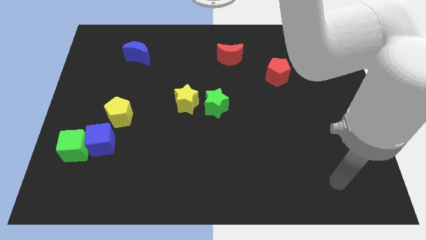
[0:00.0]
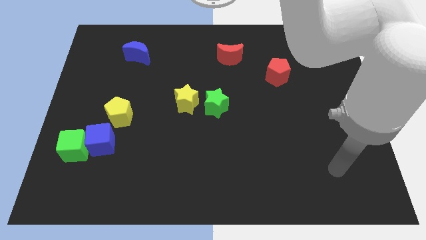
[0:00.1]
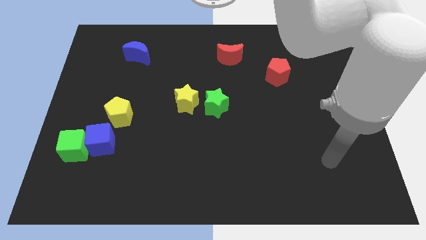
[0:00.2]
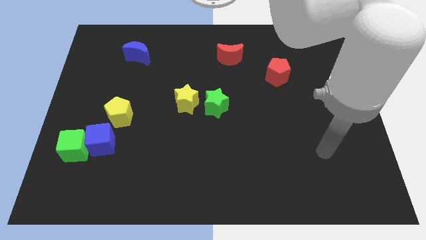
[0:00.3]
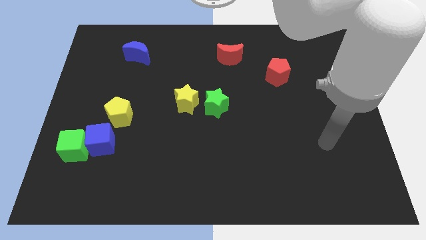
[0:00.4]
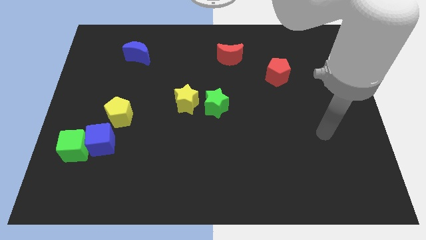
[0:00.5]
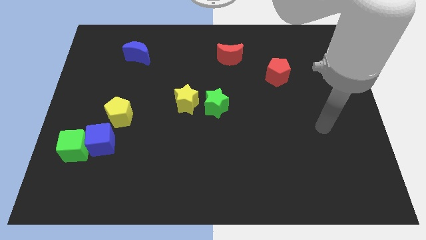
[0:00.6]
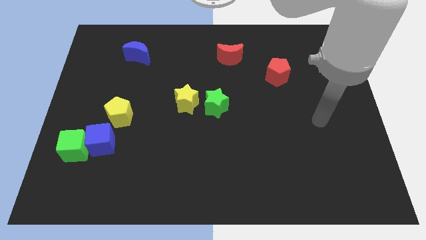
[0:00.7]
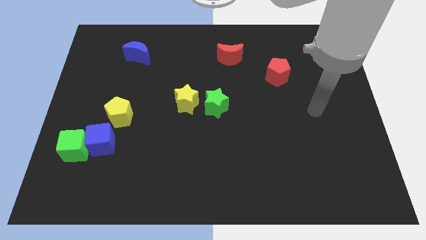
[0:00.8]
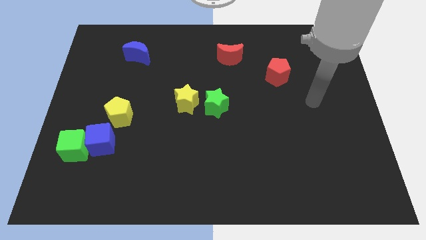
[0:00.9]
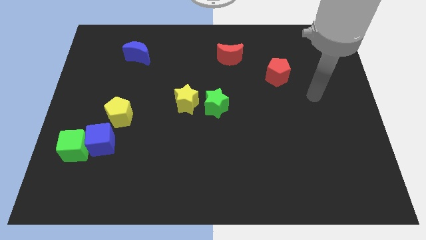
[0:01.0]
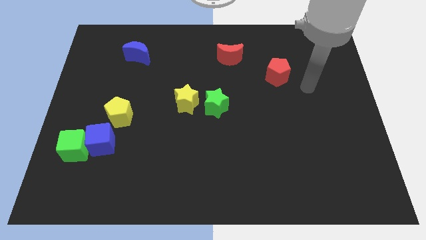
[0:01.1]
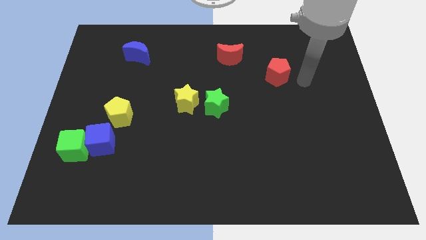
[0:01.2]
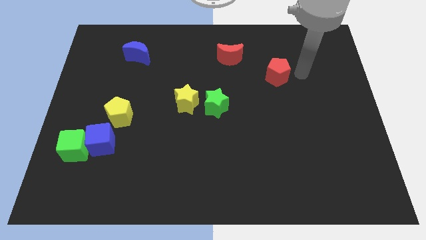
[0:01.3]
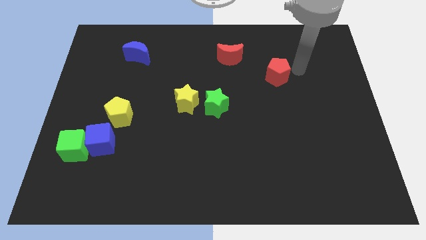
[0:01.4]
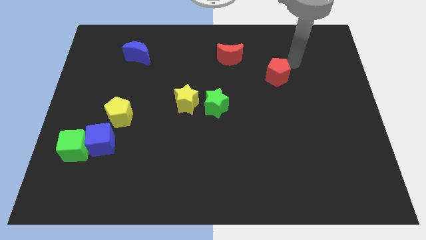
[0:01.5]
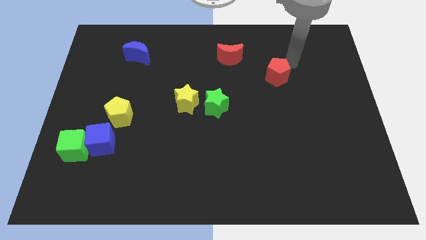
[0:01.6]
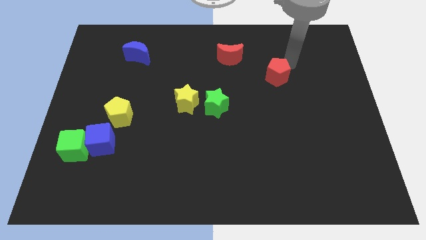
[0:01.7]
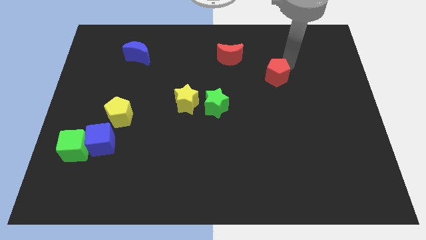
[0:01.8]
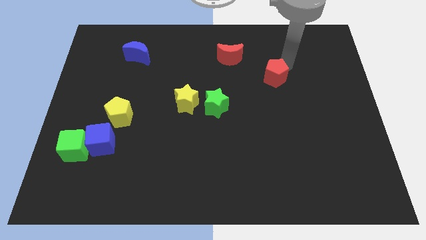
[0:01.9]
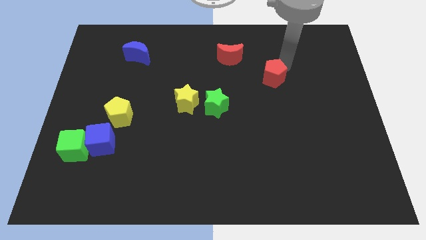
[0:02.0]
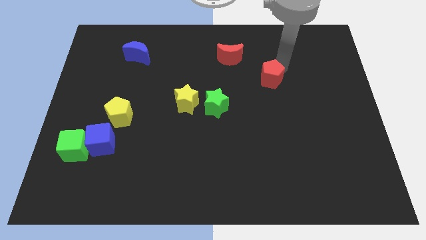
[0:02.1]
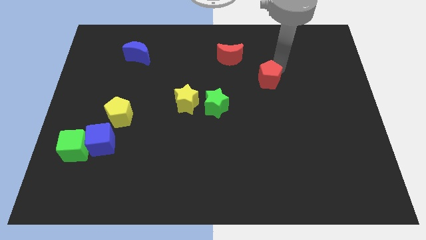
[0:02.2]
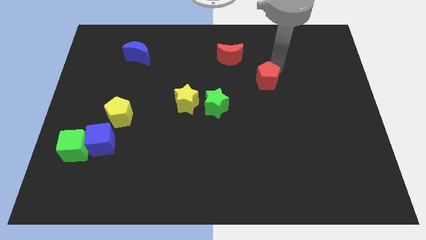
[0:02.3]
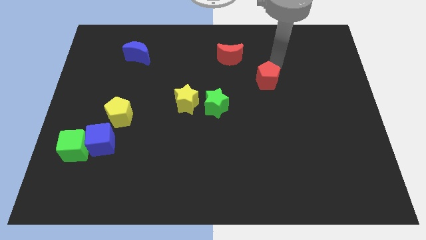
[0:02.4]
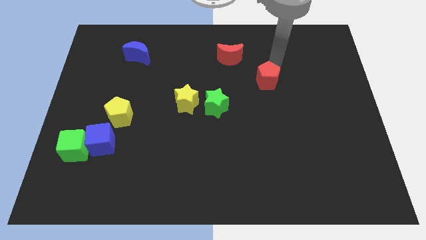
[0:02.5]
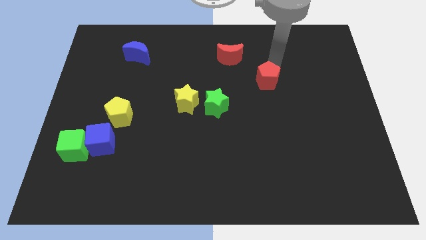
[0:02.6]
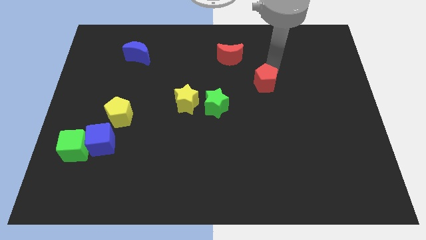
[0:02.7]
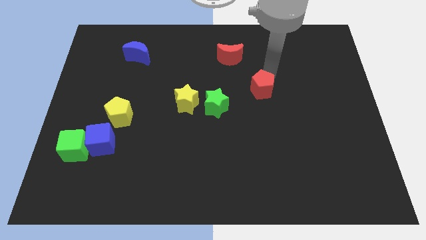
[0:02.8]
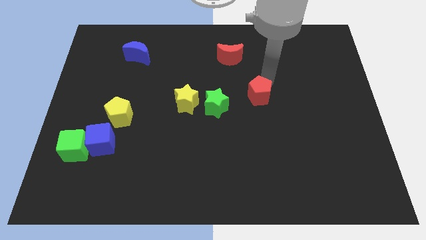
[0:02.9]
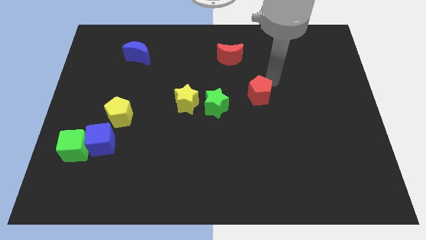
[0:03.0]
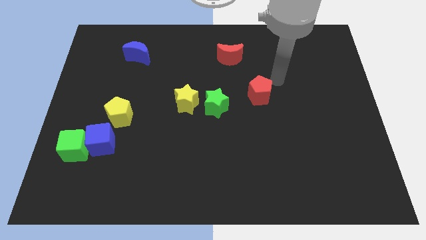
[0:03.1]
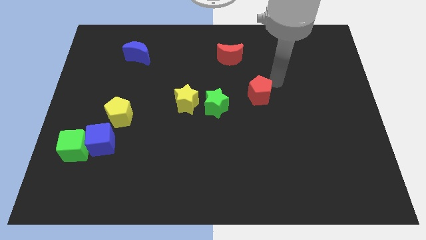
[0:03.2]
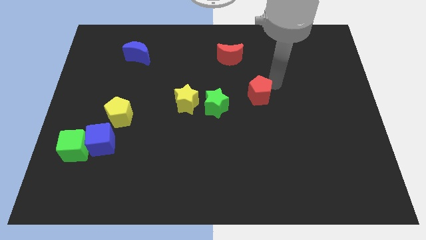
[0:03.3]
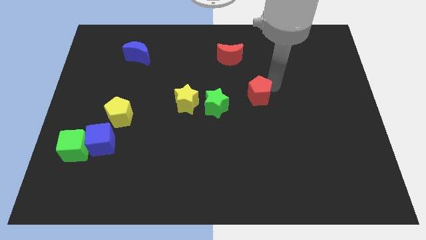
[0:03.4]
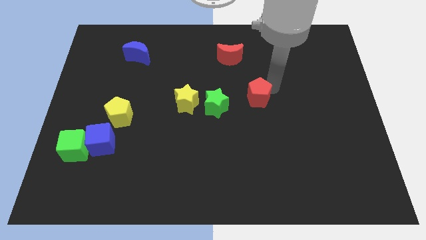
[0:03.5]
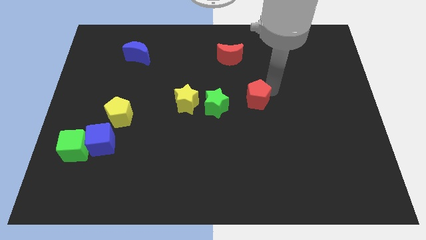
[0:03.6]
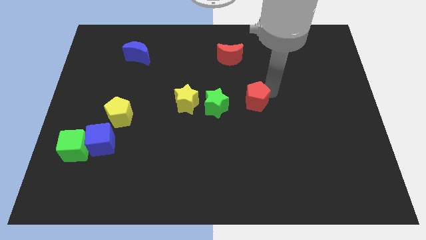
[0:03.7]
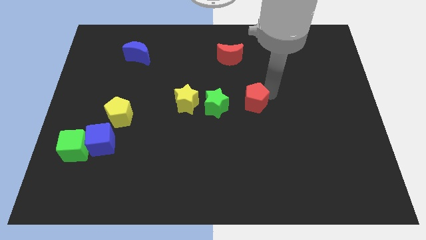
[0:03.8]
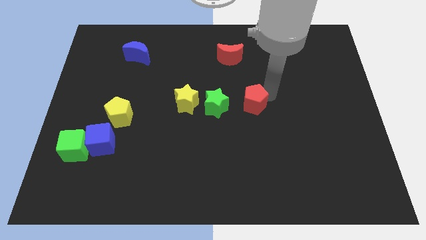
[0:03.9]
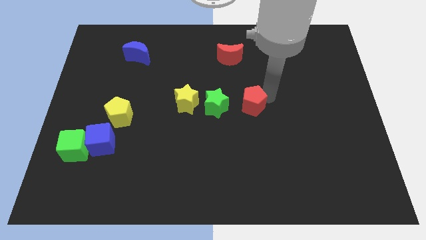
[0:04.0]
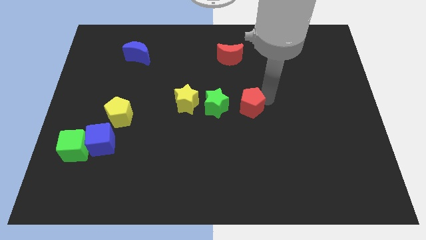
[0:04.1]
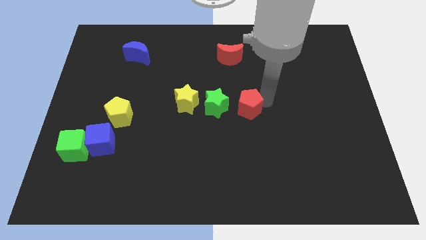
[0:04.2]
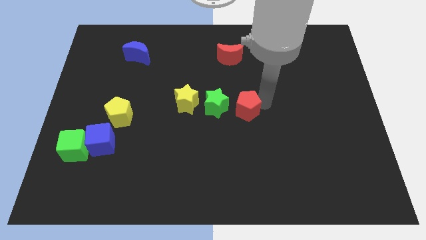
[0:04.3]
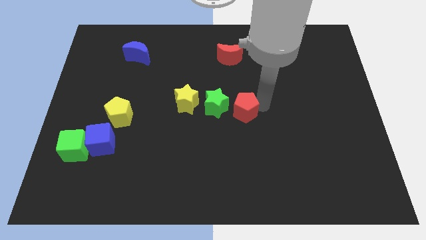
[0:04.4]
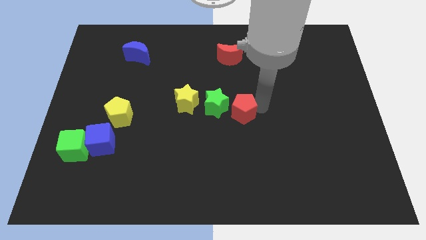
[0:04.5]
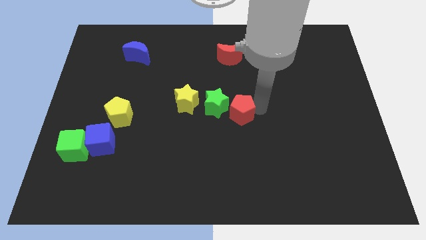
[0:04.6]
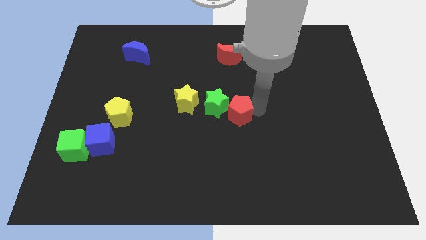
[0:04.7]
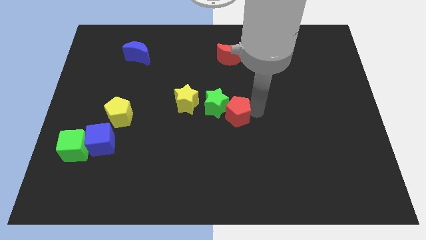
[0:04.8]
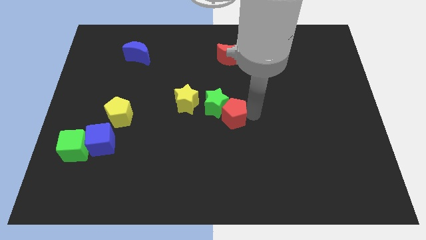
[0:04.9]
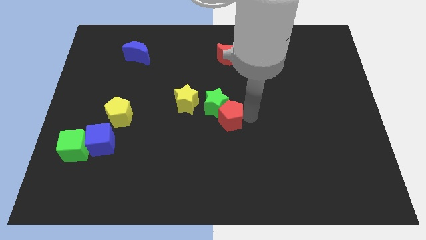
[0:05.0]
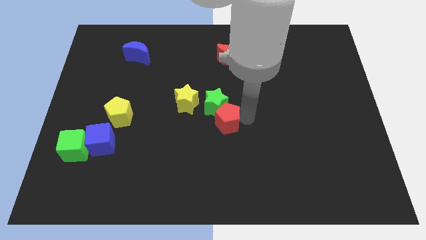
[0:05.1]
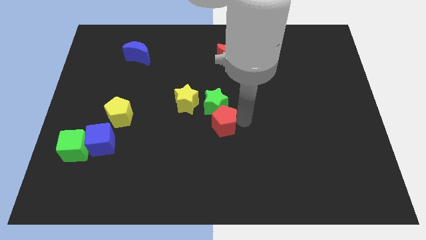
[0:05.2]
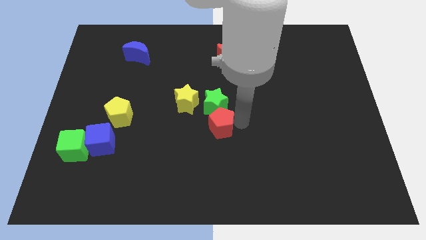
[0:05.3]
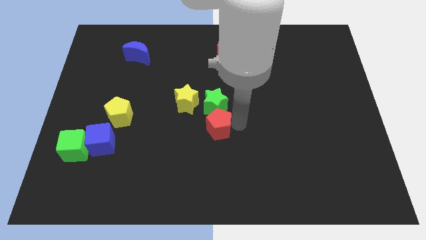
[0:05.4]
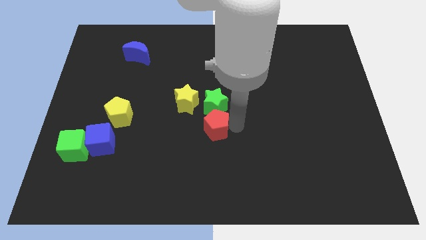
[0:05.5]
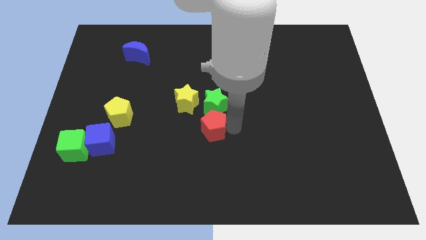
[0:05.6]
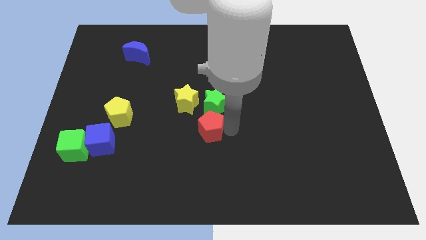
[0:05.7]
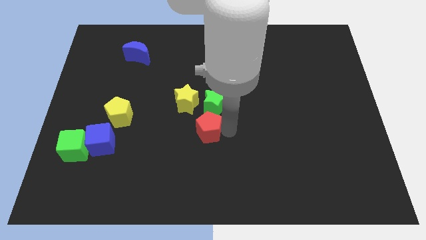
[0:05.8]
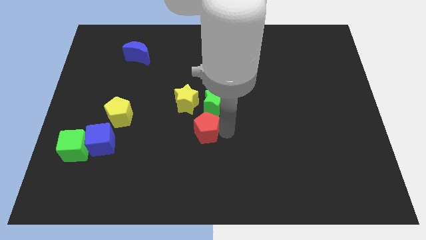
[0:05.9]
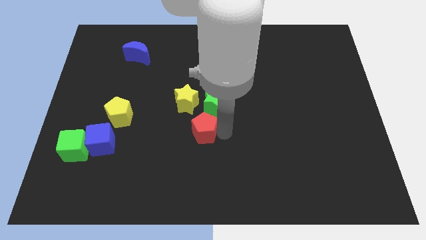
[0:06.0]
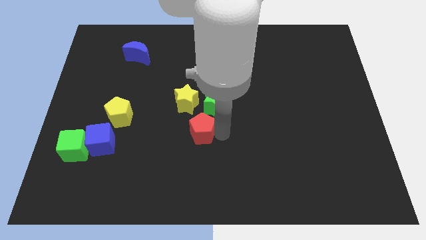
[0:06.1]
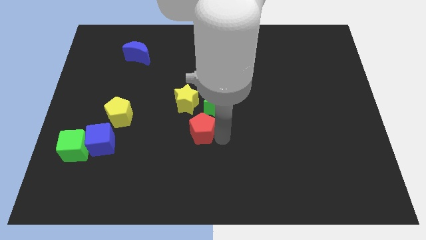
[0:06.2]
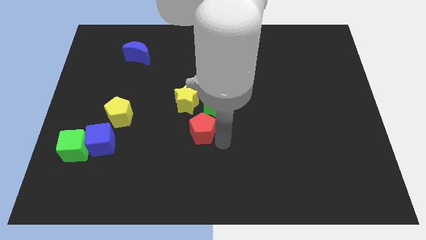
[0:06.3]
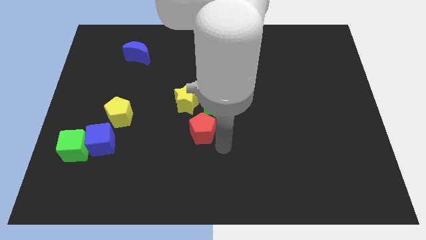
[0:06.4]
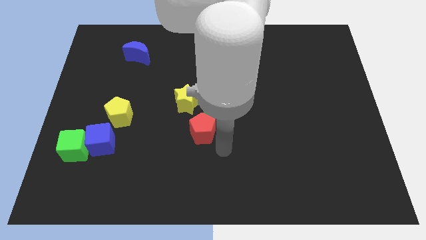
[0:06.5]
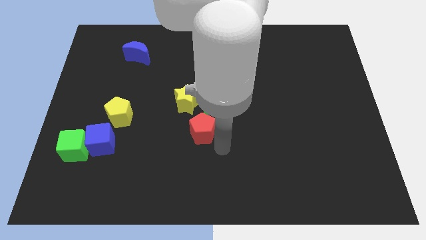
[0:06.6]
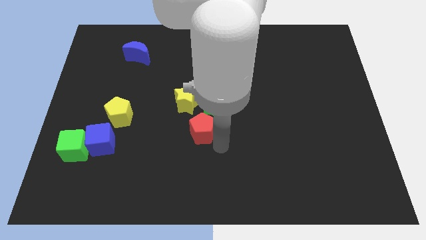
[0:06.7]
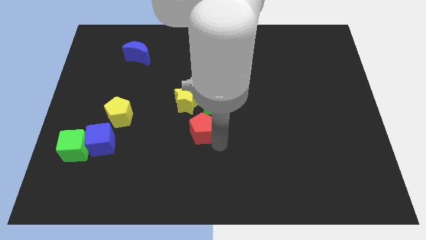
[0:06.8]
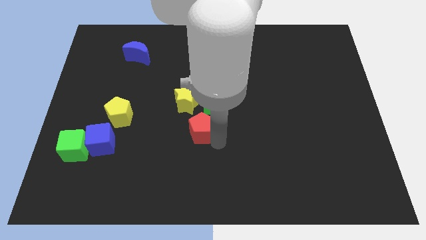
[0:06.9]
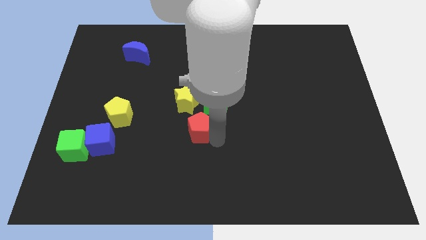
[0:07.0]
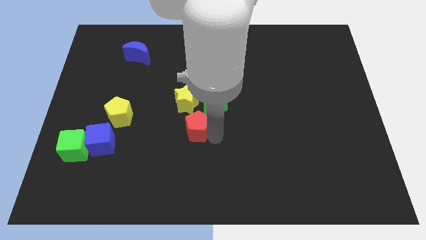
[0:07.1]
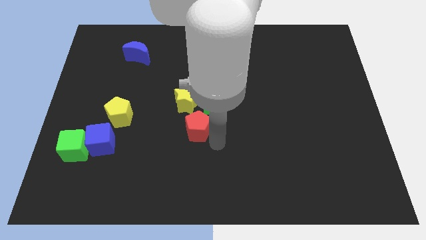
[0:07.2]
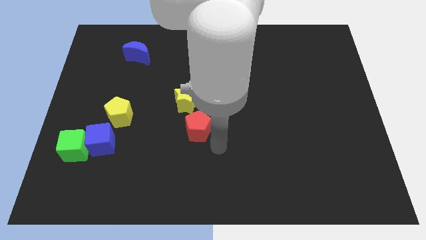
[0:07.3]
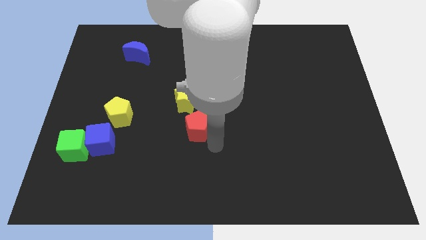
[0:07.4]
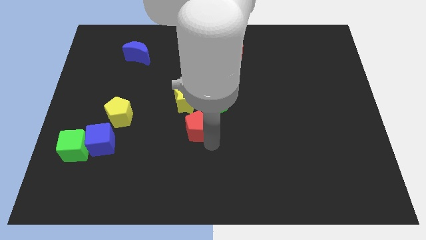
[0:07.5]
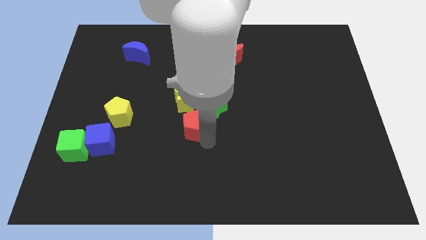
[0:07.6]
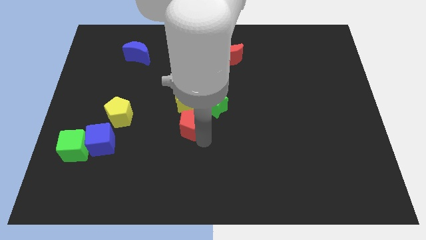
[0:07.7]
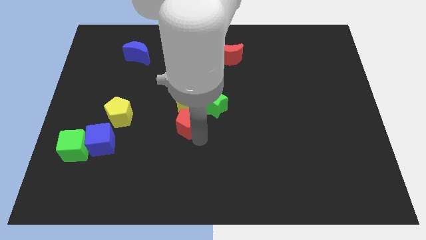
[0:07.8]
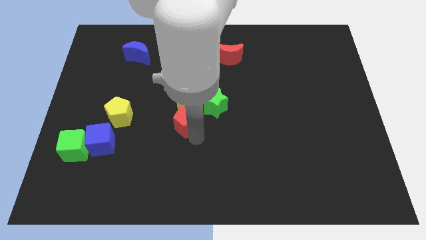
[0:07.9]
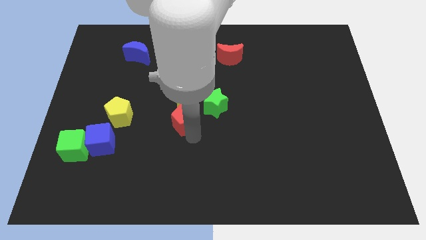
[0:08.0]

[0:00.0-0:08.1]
put the red pentagon to the left of the green star
